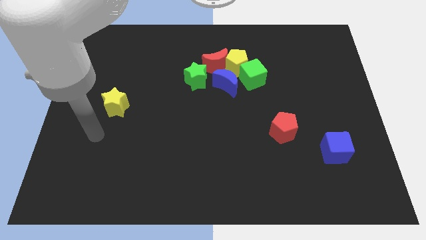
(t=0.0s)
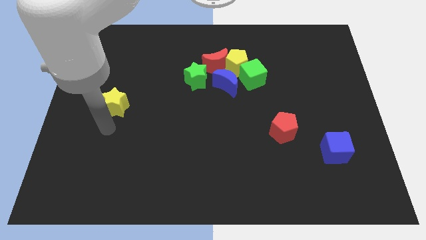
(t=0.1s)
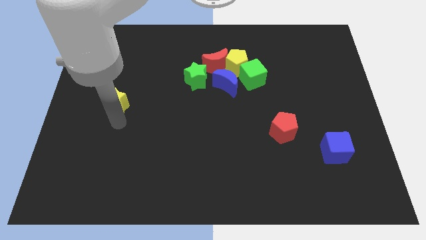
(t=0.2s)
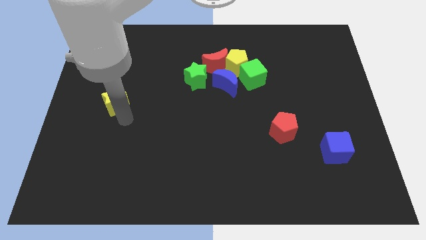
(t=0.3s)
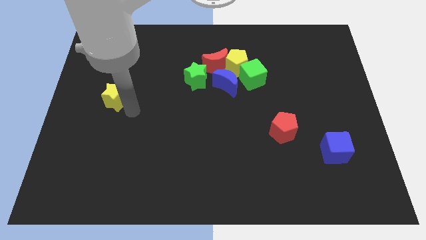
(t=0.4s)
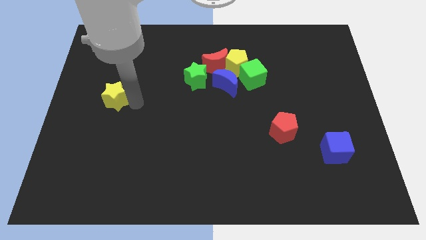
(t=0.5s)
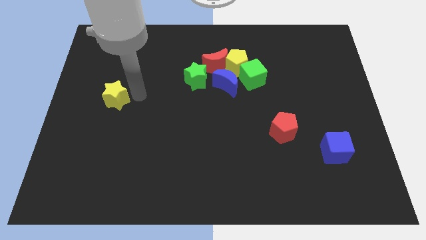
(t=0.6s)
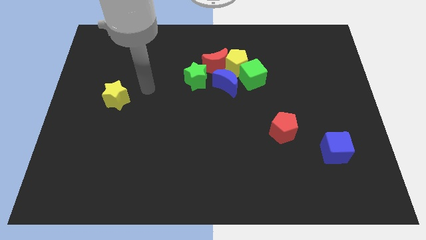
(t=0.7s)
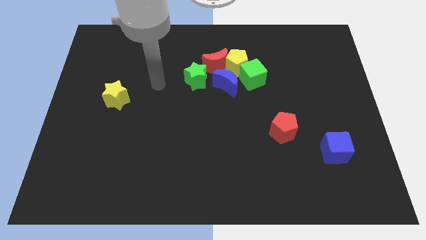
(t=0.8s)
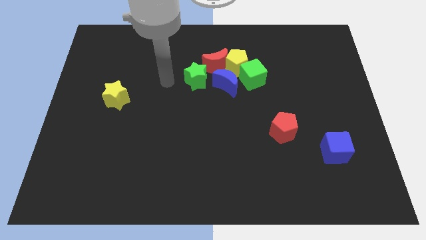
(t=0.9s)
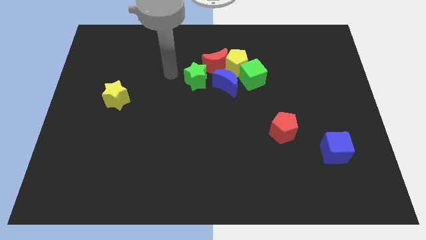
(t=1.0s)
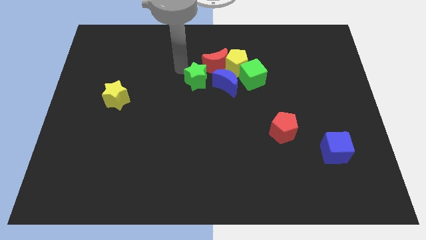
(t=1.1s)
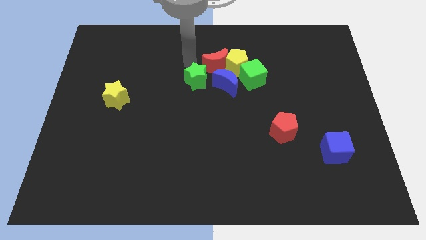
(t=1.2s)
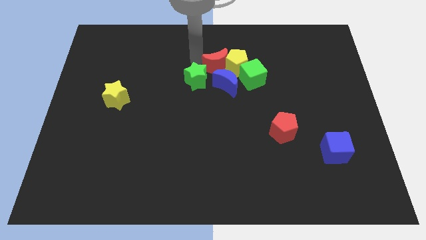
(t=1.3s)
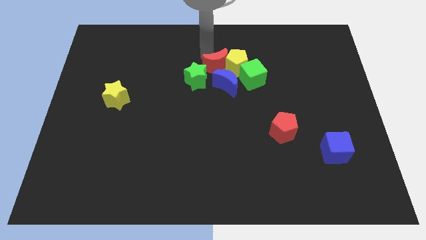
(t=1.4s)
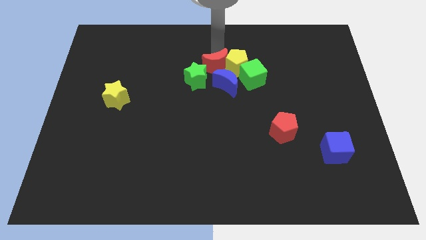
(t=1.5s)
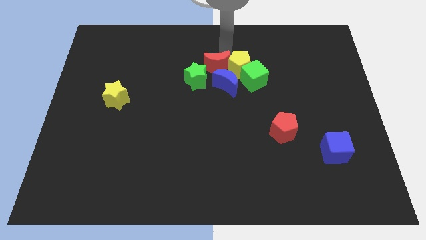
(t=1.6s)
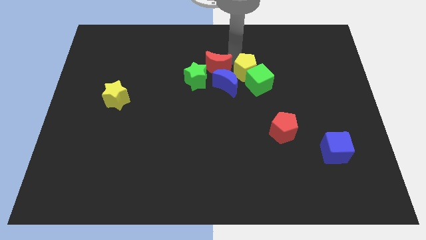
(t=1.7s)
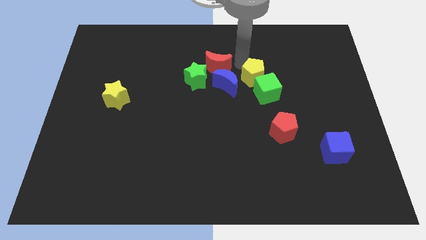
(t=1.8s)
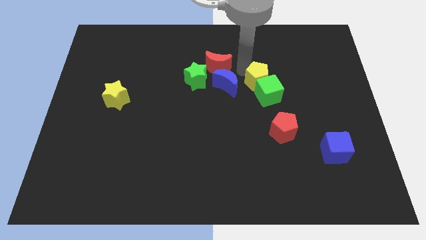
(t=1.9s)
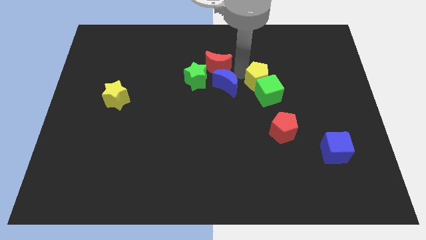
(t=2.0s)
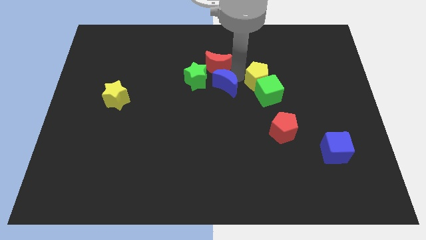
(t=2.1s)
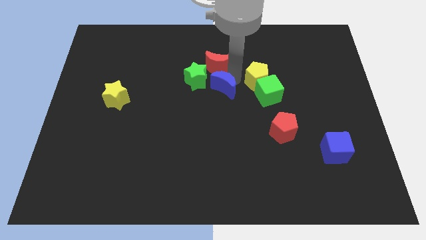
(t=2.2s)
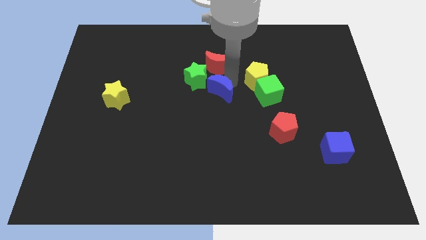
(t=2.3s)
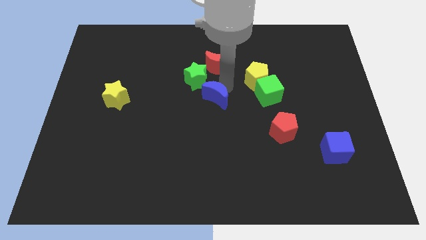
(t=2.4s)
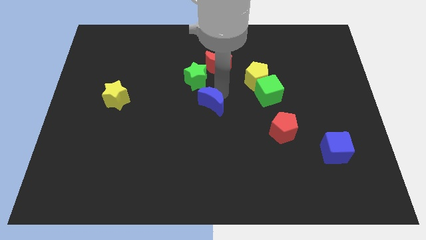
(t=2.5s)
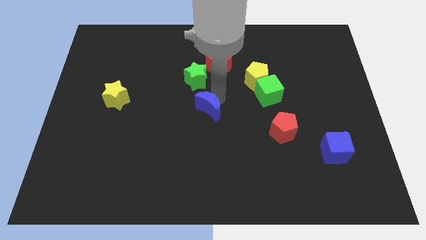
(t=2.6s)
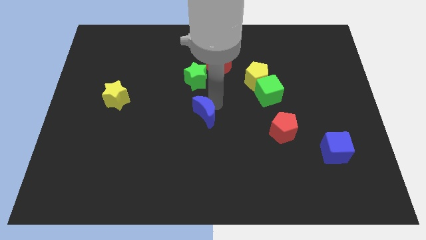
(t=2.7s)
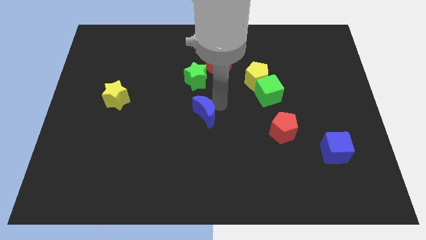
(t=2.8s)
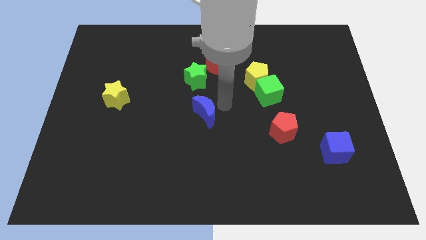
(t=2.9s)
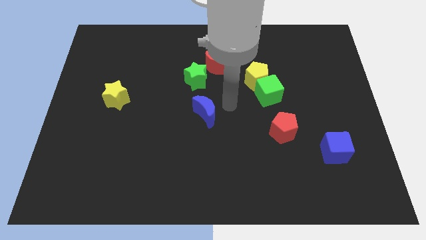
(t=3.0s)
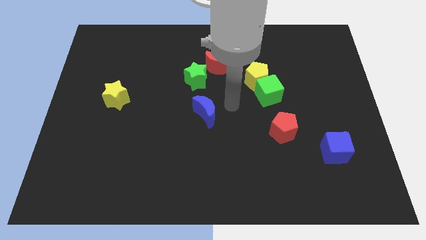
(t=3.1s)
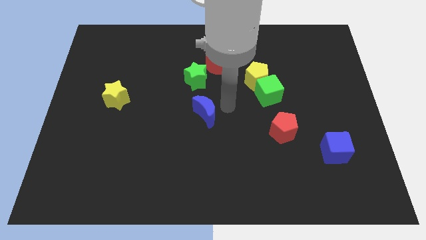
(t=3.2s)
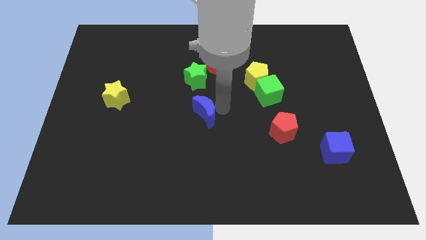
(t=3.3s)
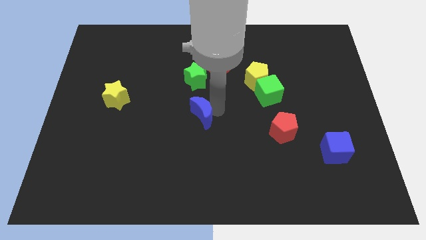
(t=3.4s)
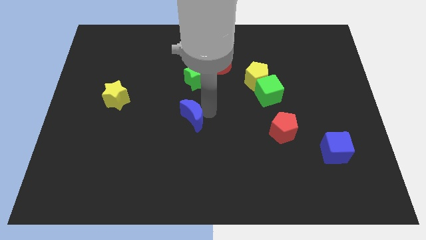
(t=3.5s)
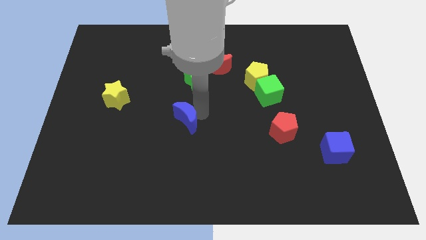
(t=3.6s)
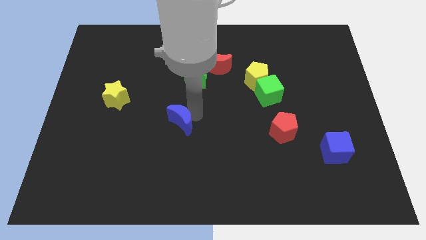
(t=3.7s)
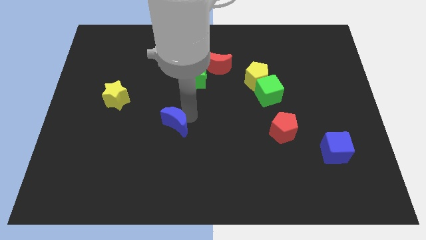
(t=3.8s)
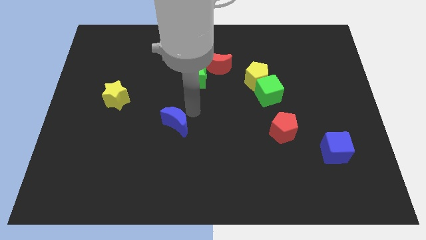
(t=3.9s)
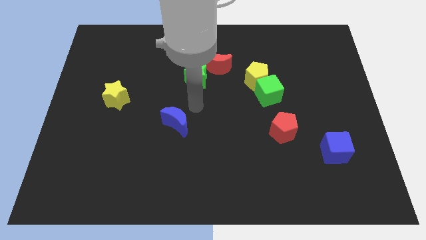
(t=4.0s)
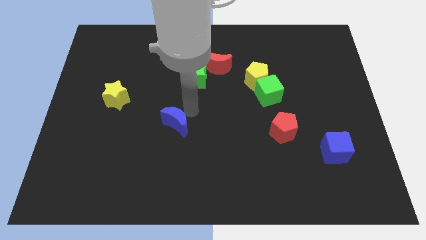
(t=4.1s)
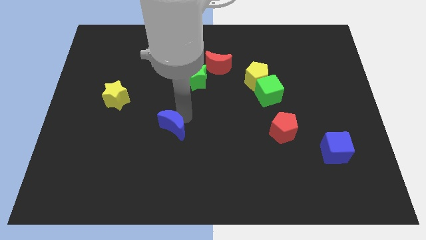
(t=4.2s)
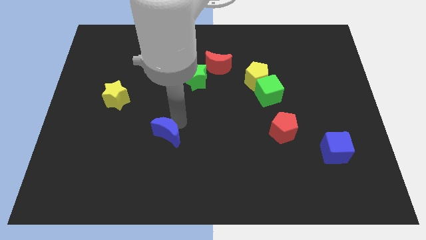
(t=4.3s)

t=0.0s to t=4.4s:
push the blue moon downwards and to the left diagonally

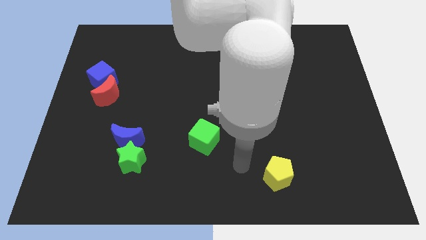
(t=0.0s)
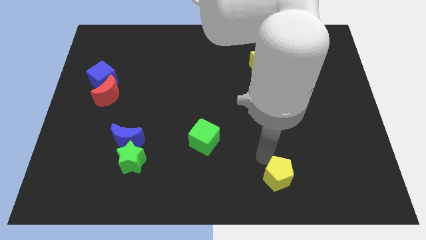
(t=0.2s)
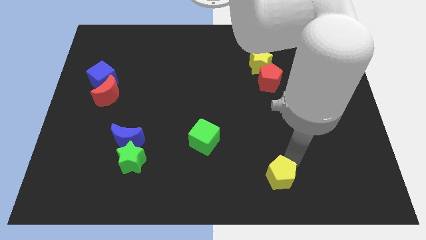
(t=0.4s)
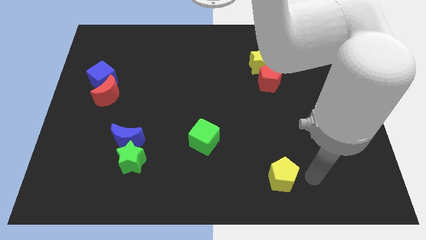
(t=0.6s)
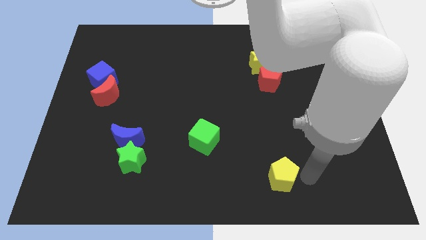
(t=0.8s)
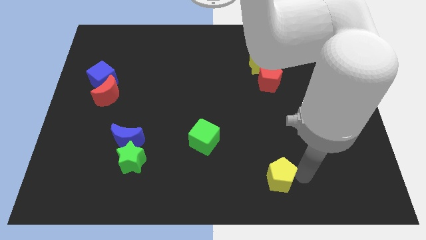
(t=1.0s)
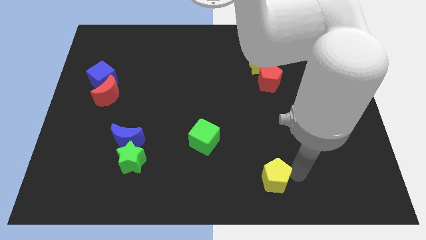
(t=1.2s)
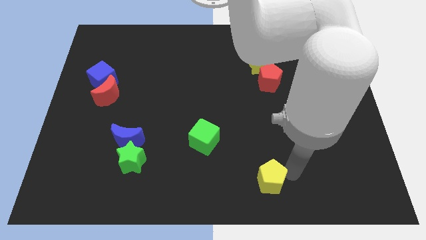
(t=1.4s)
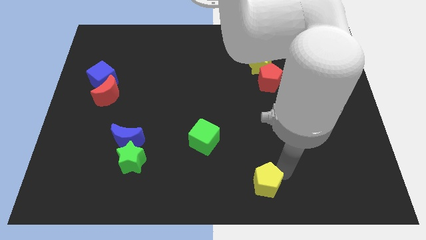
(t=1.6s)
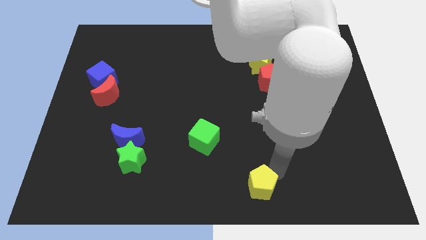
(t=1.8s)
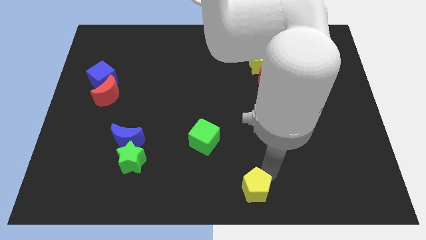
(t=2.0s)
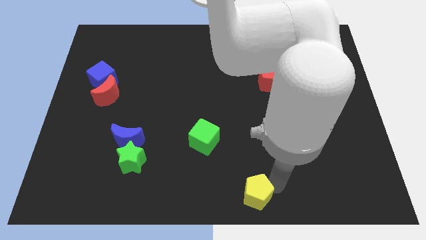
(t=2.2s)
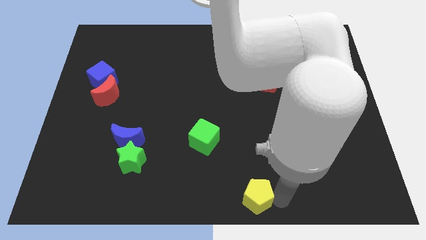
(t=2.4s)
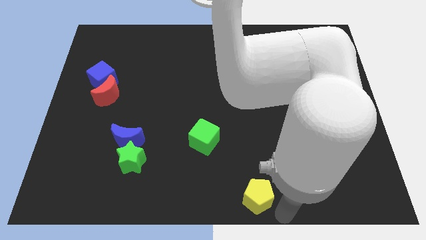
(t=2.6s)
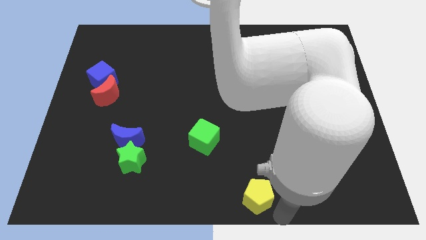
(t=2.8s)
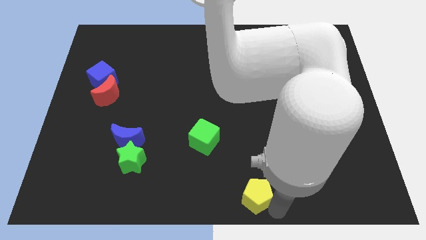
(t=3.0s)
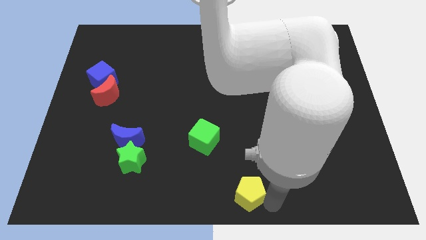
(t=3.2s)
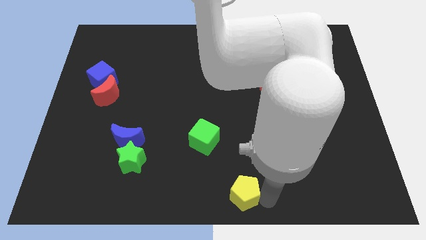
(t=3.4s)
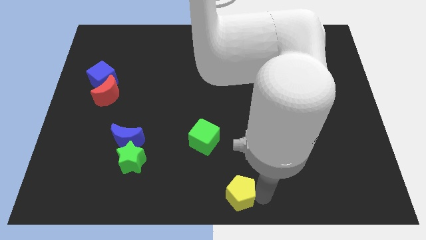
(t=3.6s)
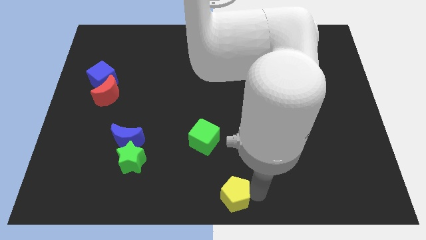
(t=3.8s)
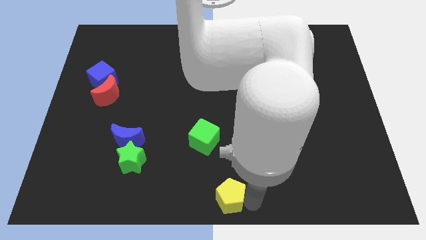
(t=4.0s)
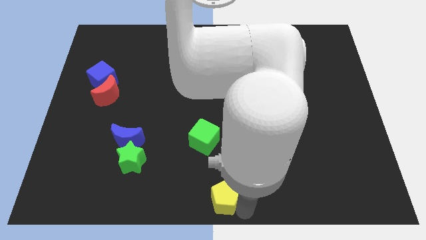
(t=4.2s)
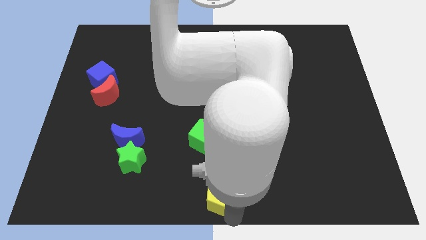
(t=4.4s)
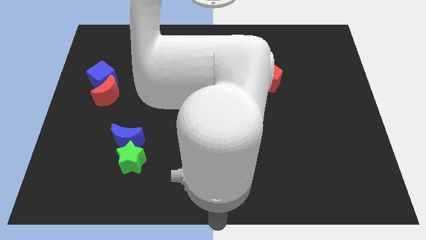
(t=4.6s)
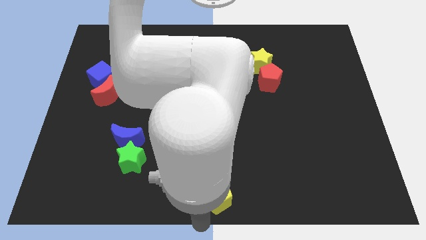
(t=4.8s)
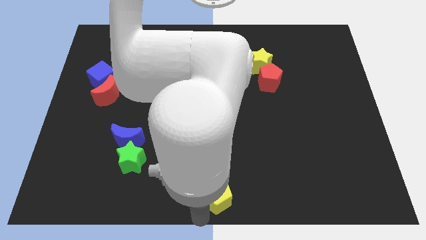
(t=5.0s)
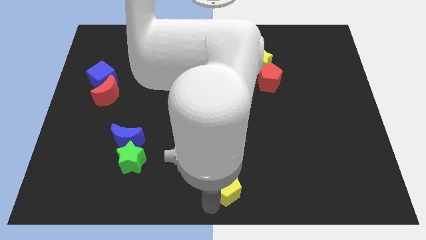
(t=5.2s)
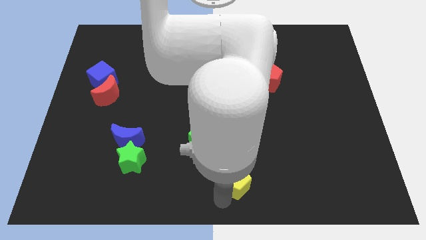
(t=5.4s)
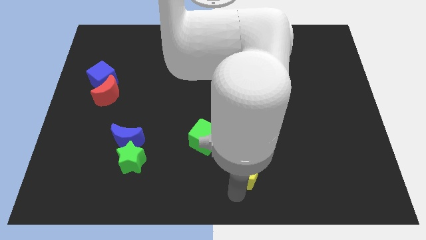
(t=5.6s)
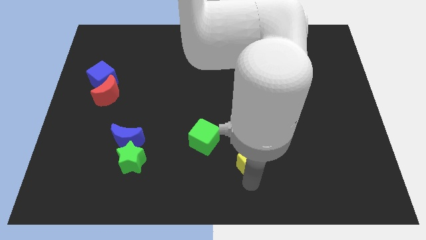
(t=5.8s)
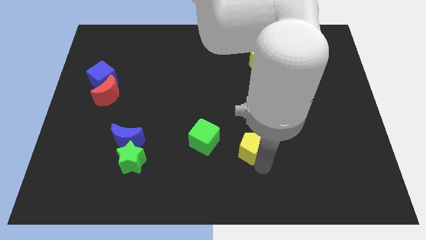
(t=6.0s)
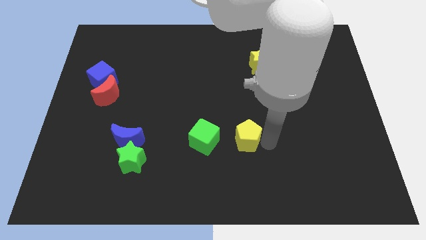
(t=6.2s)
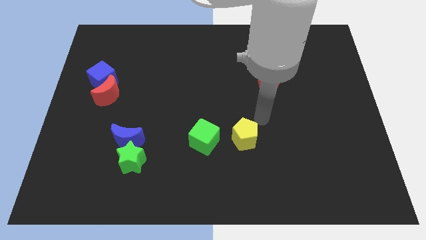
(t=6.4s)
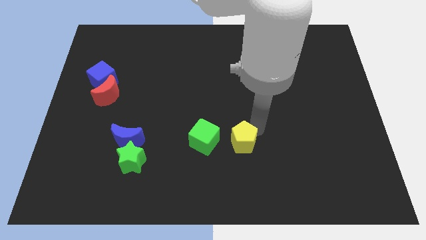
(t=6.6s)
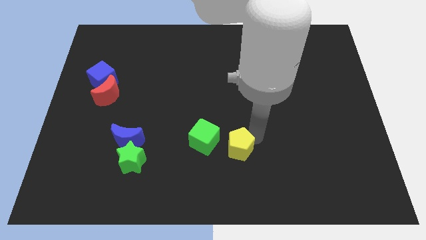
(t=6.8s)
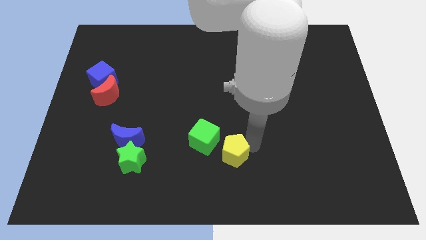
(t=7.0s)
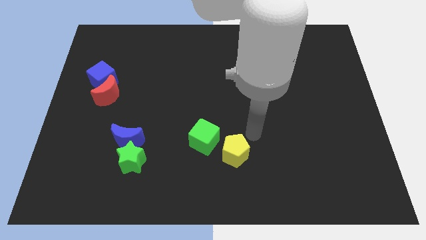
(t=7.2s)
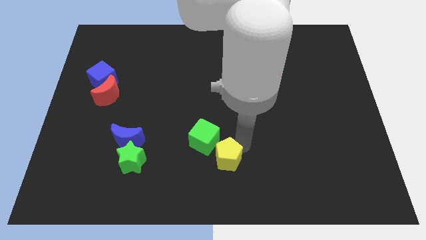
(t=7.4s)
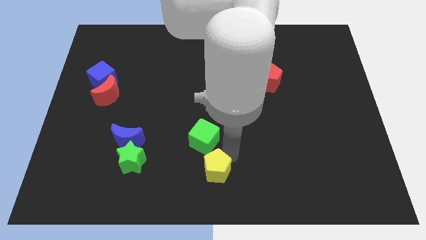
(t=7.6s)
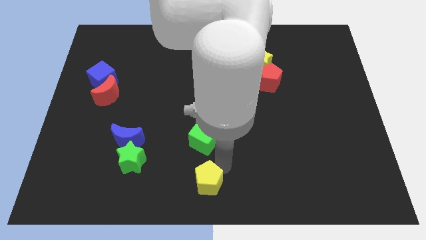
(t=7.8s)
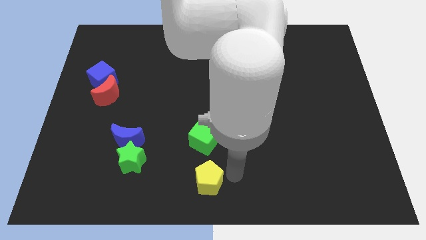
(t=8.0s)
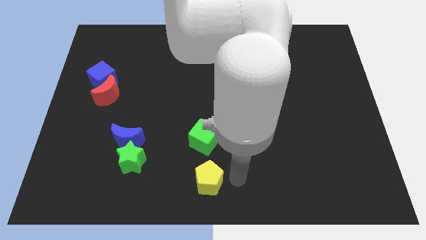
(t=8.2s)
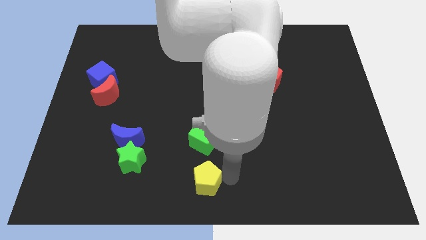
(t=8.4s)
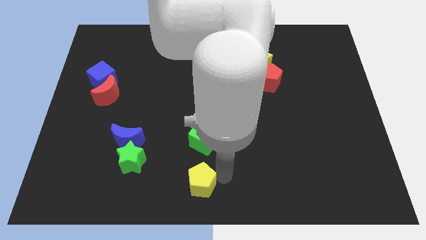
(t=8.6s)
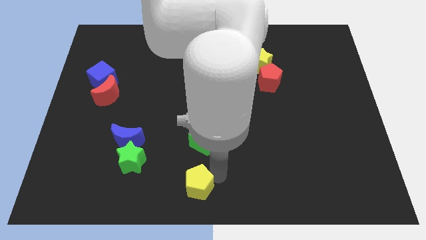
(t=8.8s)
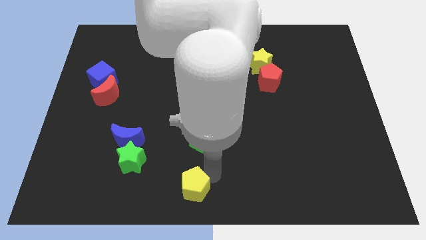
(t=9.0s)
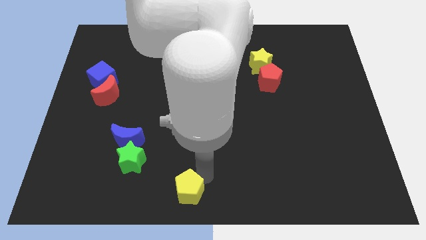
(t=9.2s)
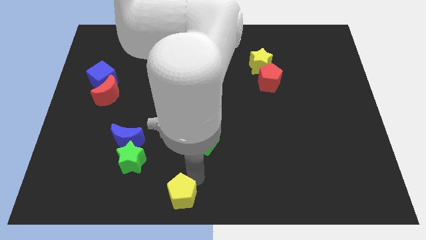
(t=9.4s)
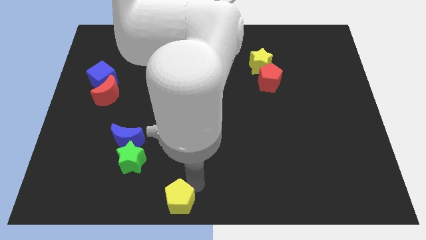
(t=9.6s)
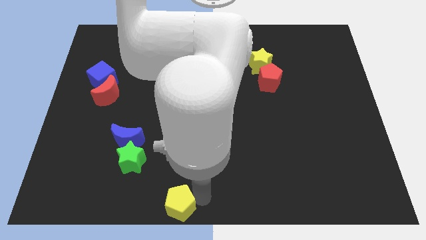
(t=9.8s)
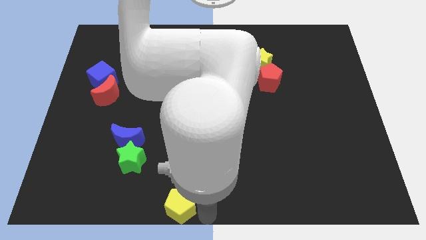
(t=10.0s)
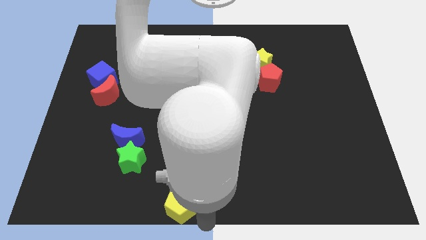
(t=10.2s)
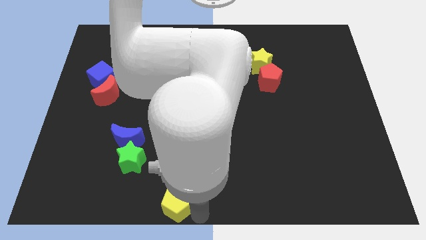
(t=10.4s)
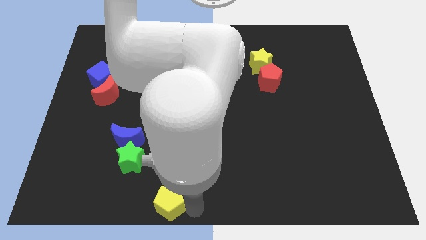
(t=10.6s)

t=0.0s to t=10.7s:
push the yellow pentagon left
